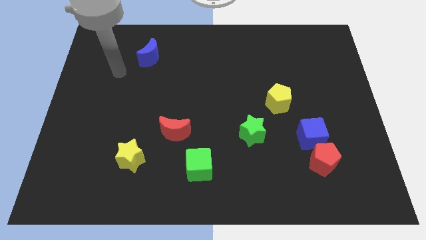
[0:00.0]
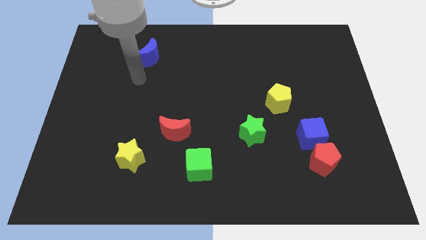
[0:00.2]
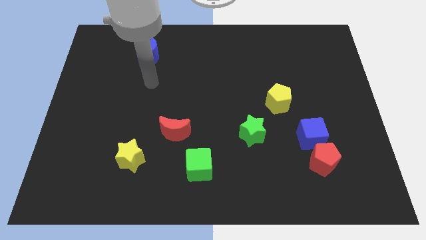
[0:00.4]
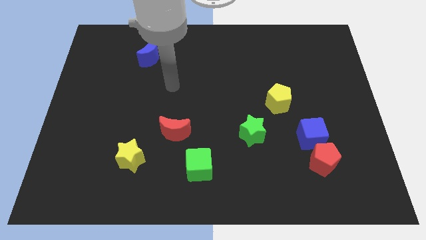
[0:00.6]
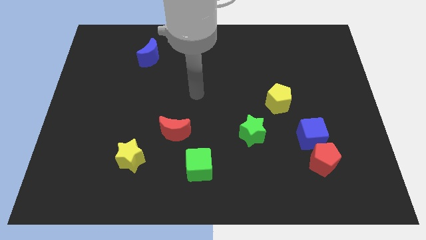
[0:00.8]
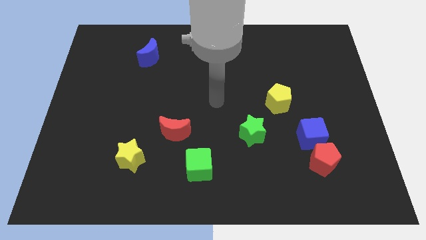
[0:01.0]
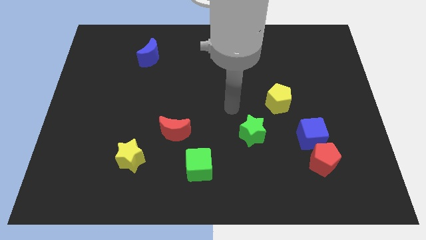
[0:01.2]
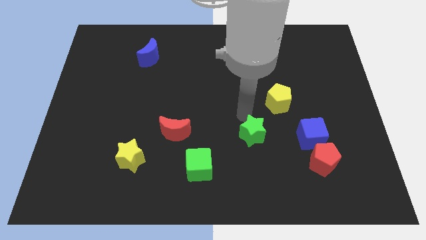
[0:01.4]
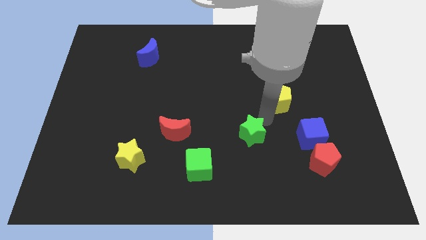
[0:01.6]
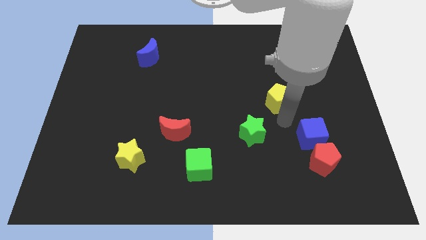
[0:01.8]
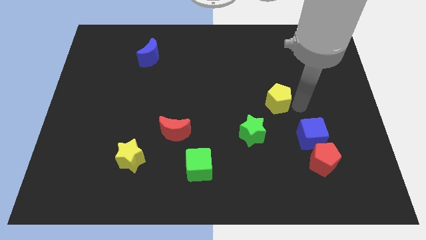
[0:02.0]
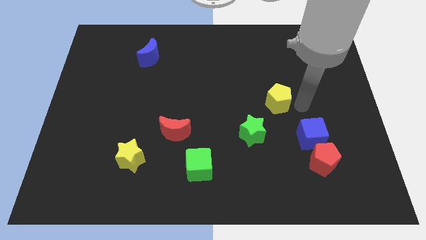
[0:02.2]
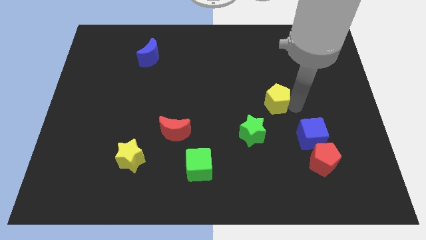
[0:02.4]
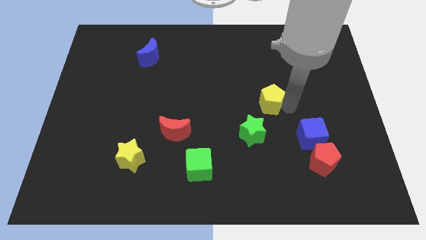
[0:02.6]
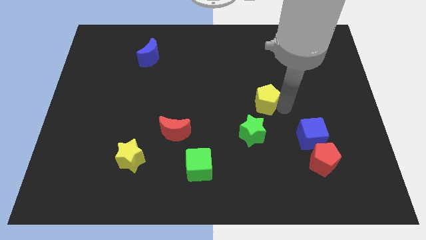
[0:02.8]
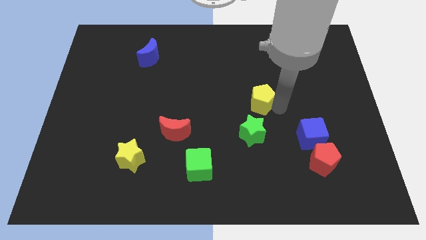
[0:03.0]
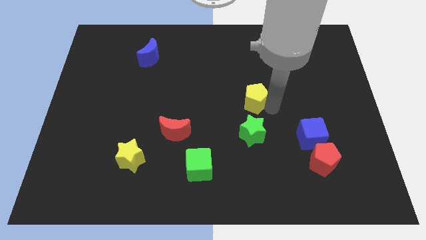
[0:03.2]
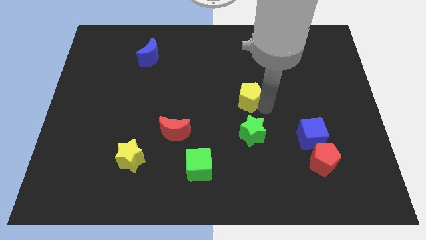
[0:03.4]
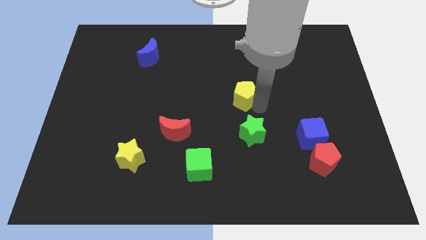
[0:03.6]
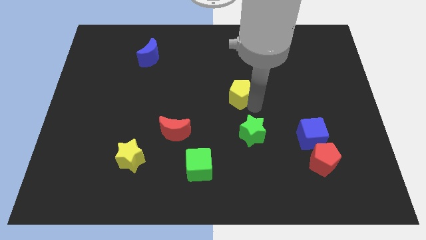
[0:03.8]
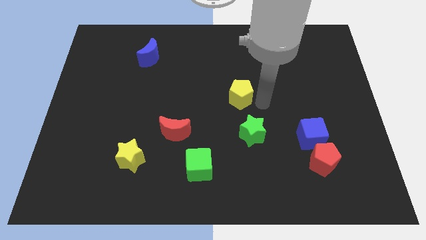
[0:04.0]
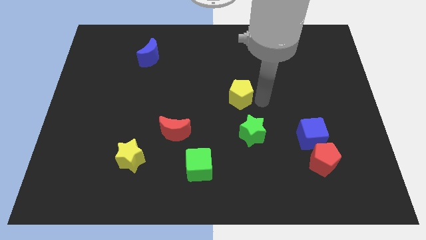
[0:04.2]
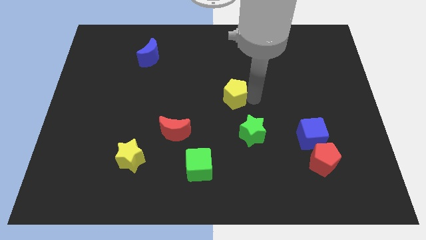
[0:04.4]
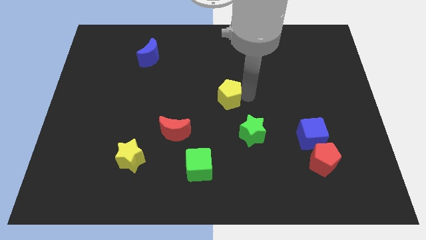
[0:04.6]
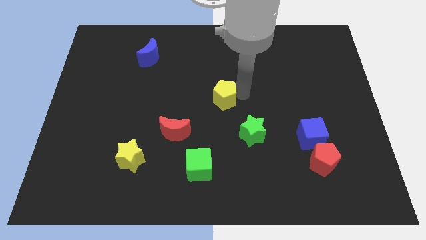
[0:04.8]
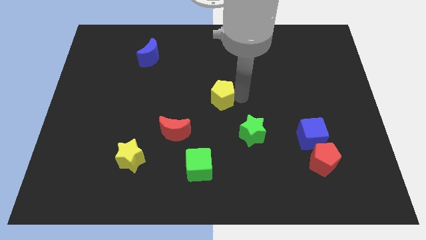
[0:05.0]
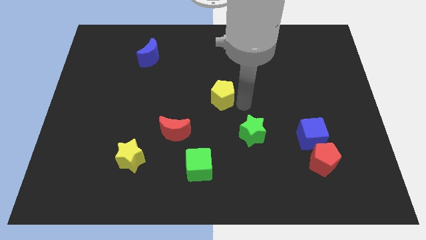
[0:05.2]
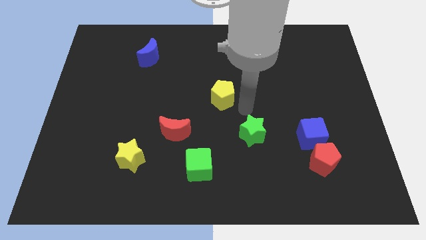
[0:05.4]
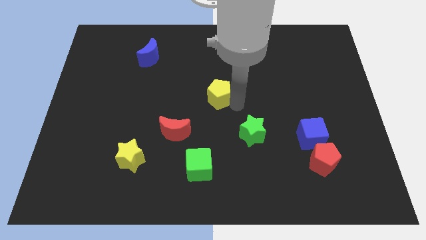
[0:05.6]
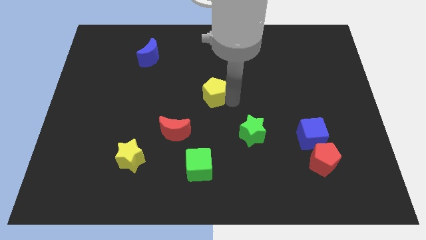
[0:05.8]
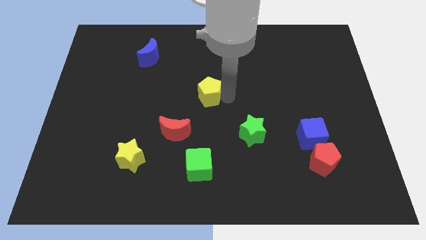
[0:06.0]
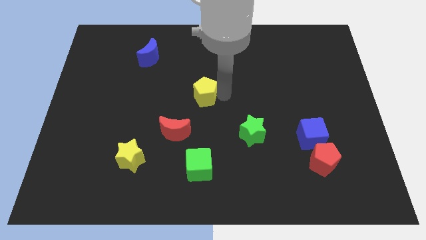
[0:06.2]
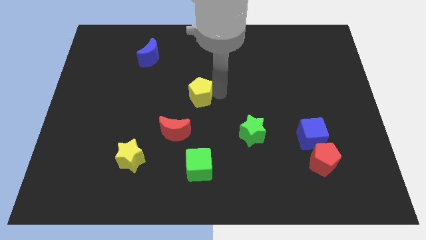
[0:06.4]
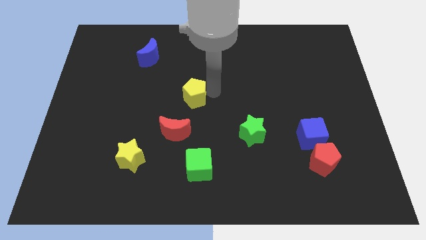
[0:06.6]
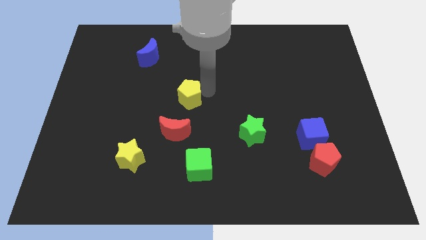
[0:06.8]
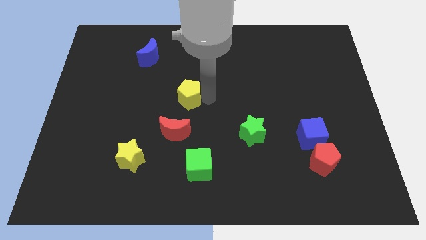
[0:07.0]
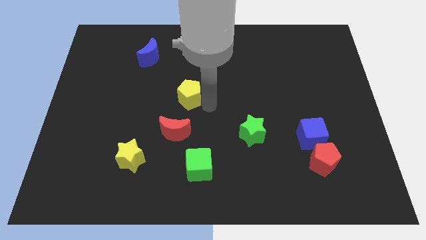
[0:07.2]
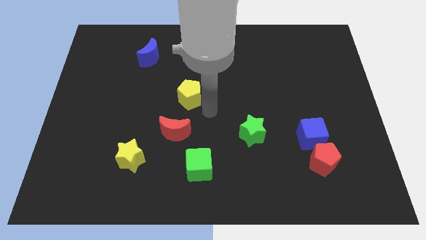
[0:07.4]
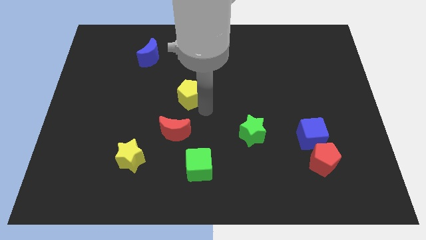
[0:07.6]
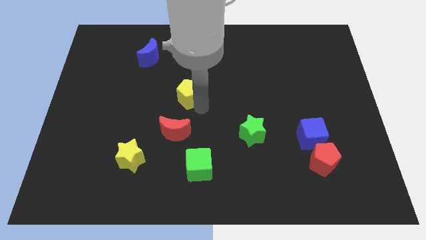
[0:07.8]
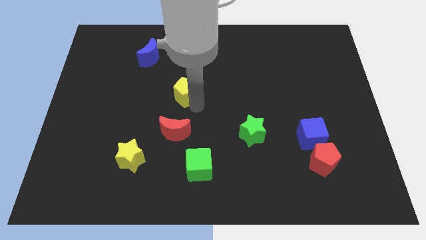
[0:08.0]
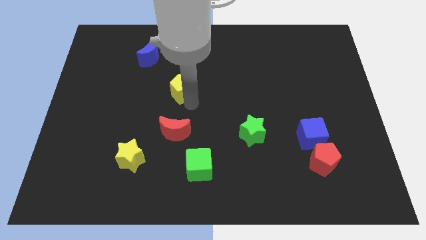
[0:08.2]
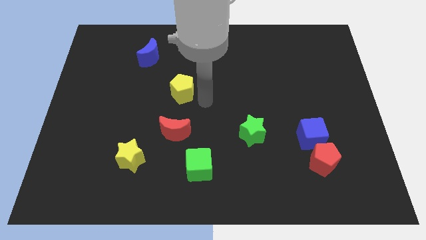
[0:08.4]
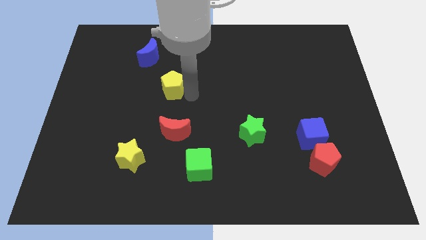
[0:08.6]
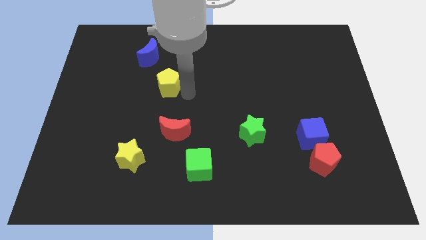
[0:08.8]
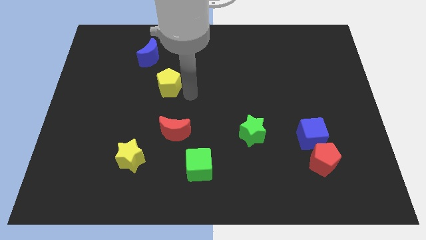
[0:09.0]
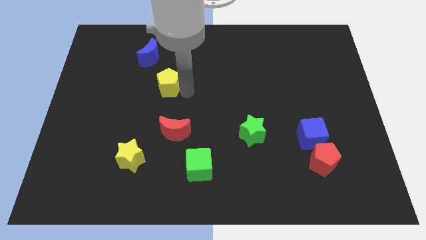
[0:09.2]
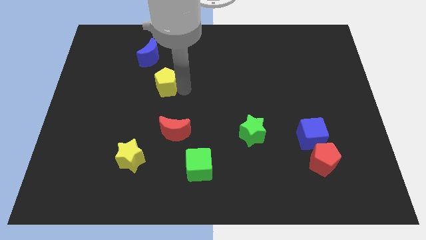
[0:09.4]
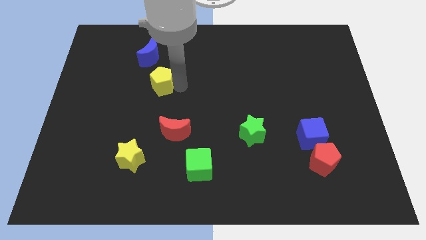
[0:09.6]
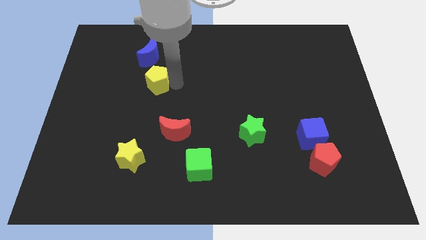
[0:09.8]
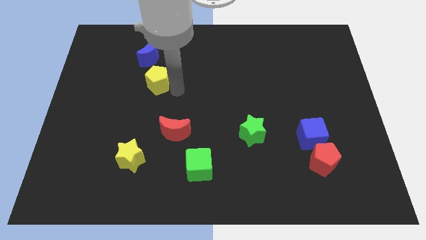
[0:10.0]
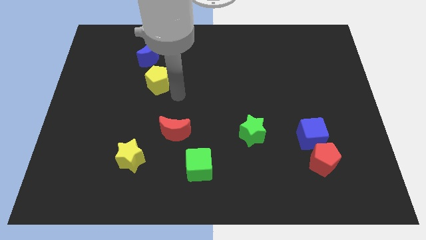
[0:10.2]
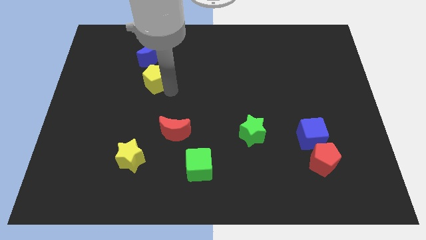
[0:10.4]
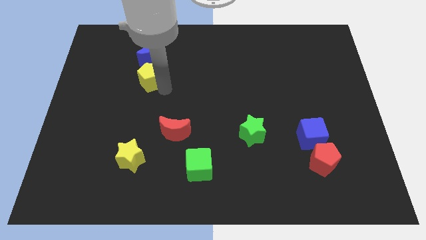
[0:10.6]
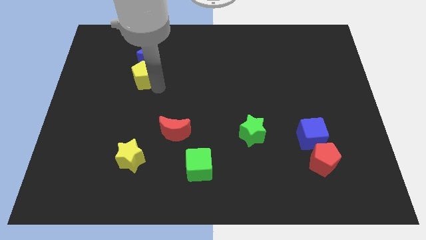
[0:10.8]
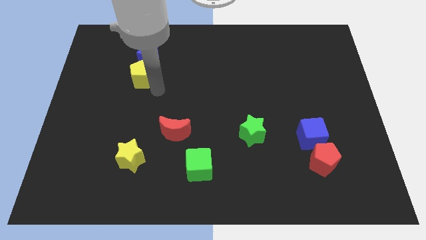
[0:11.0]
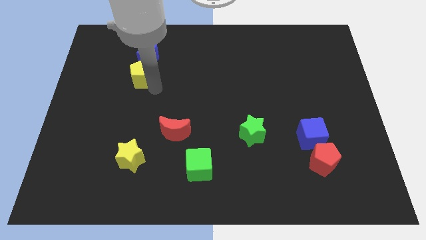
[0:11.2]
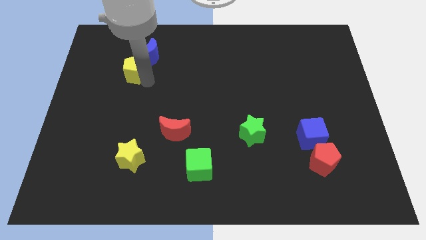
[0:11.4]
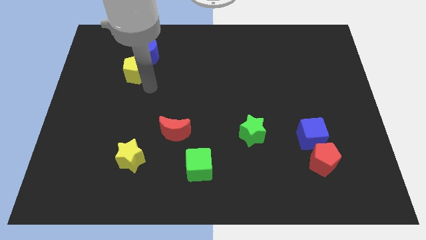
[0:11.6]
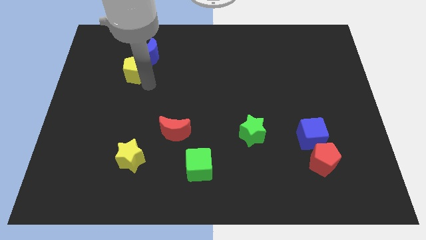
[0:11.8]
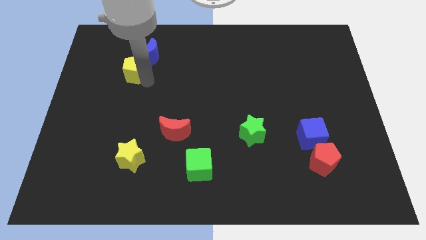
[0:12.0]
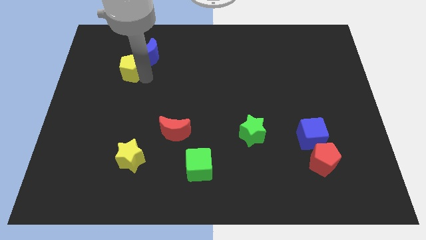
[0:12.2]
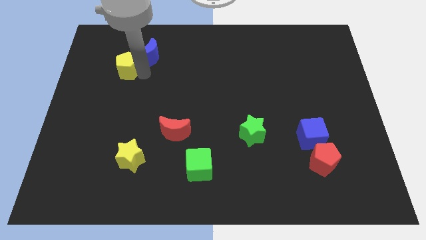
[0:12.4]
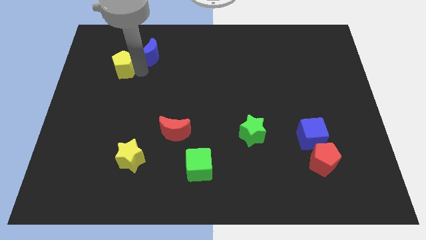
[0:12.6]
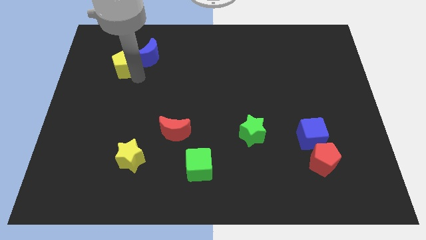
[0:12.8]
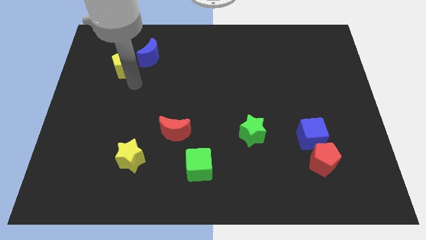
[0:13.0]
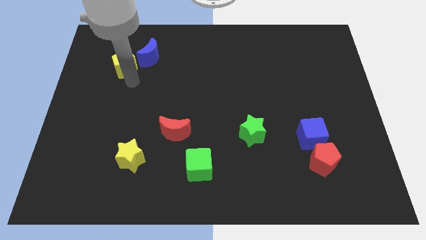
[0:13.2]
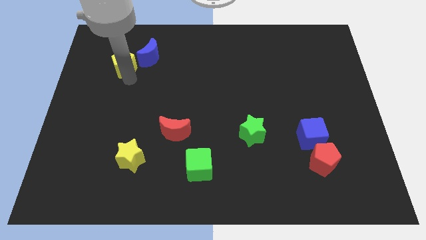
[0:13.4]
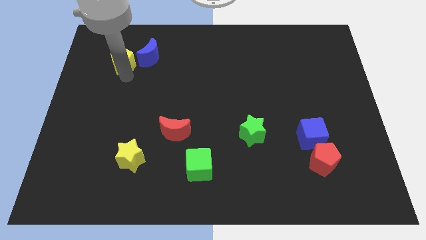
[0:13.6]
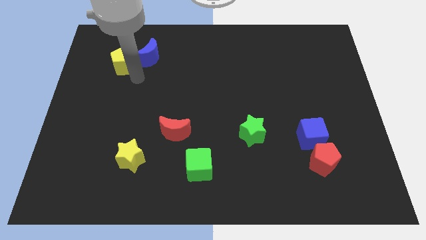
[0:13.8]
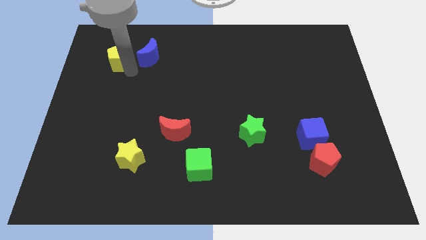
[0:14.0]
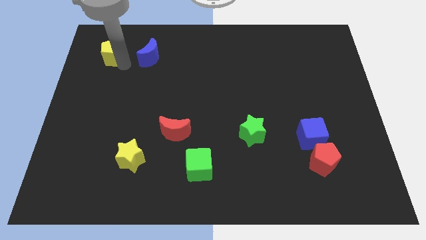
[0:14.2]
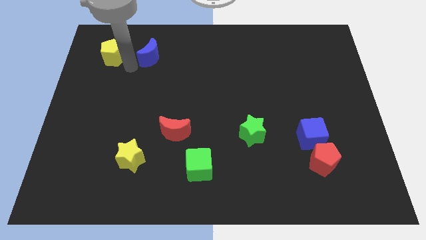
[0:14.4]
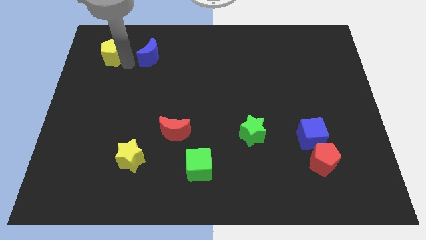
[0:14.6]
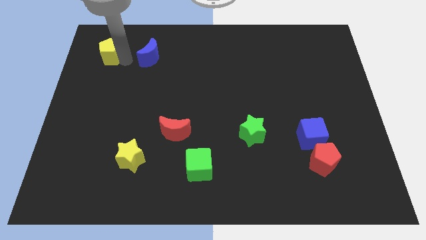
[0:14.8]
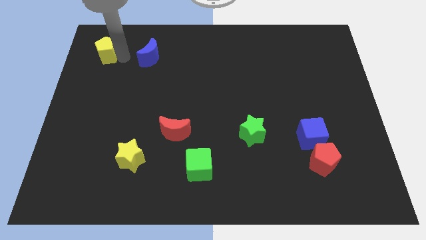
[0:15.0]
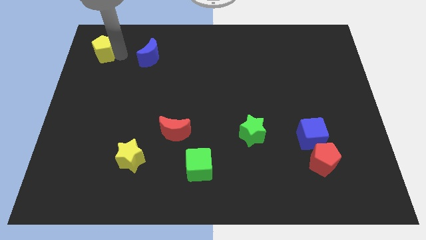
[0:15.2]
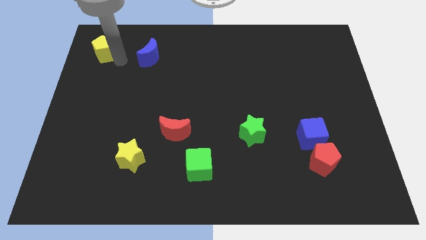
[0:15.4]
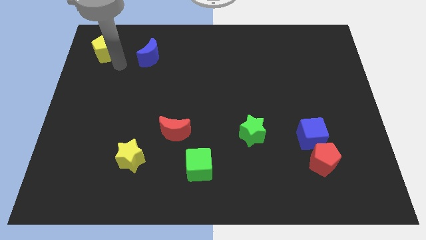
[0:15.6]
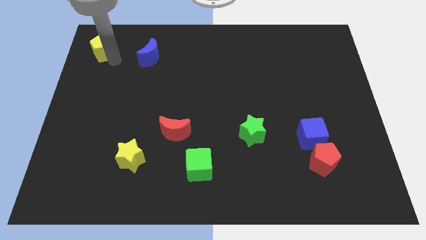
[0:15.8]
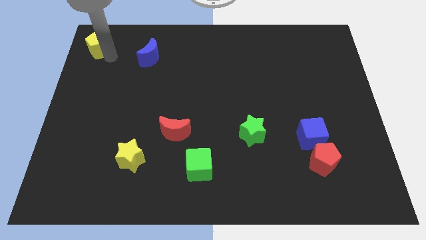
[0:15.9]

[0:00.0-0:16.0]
push the yellow pentagon to the top left
